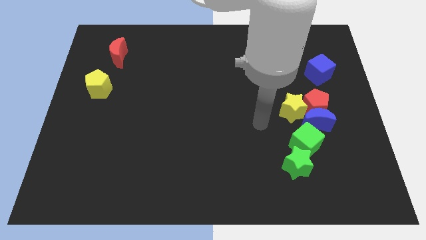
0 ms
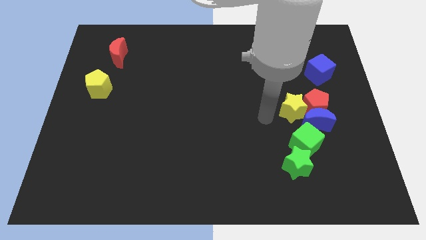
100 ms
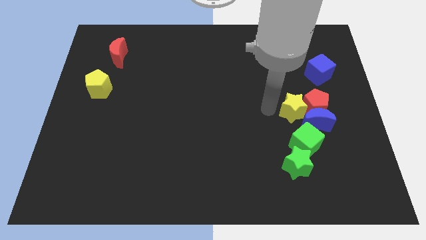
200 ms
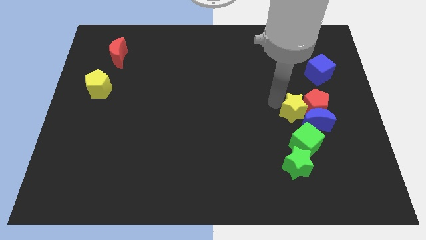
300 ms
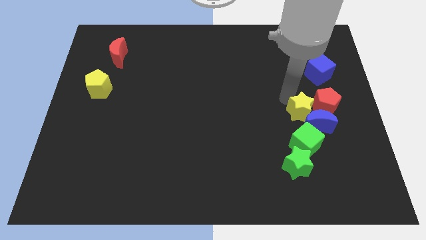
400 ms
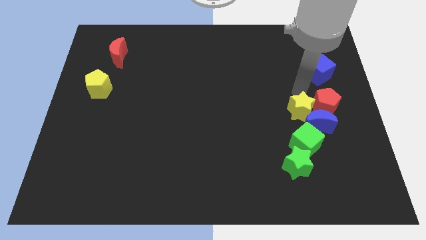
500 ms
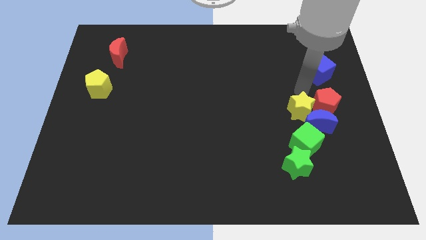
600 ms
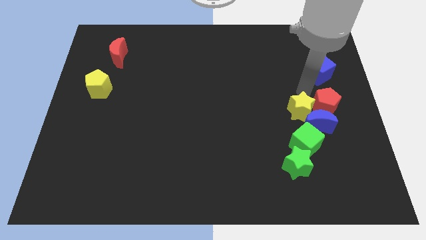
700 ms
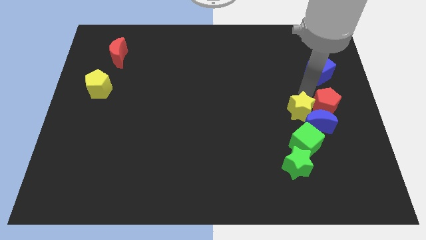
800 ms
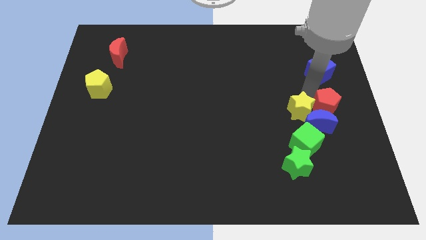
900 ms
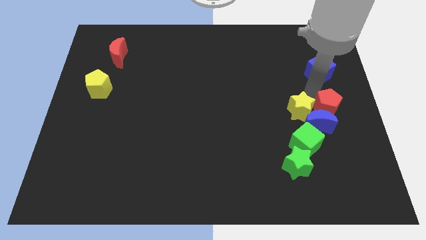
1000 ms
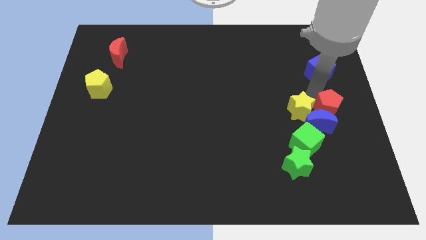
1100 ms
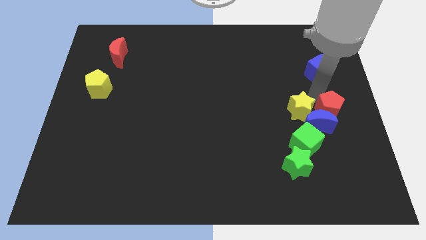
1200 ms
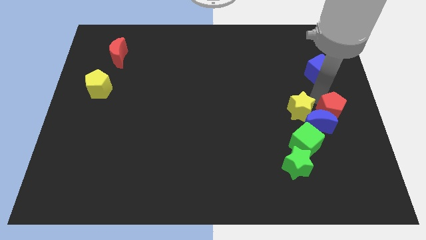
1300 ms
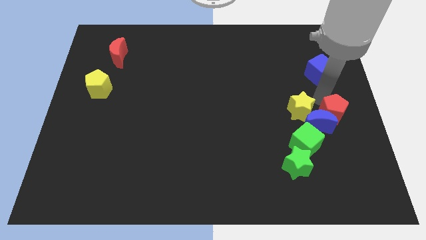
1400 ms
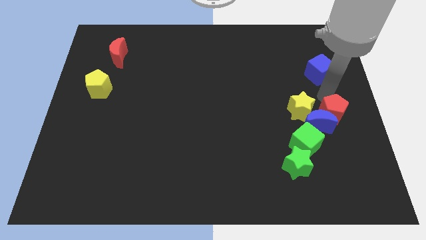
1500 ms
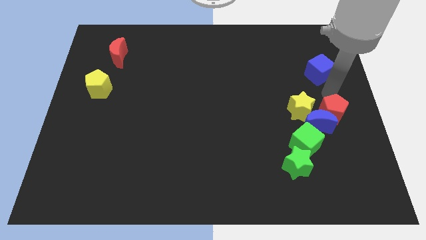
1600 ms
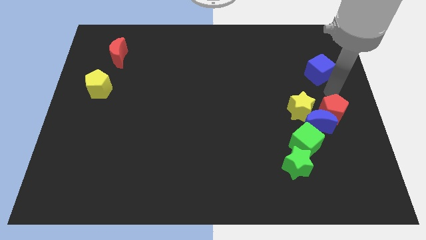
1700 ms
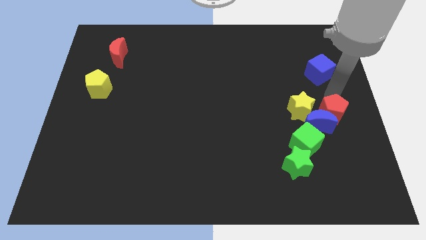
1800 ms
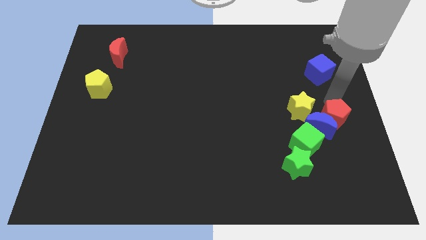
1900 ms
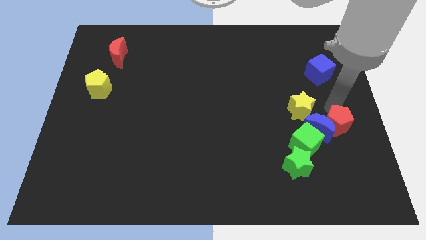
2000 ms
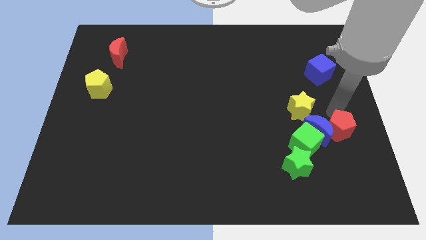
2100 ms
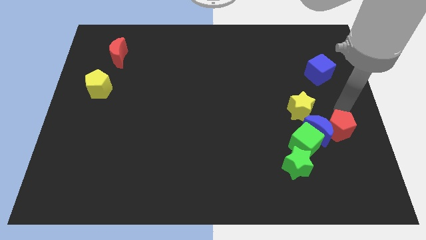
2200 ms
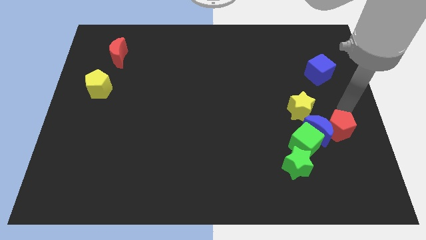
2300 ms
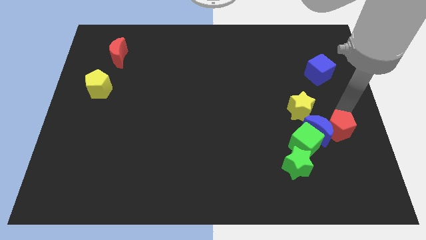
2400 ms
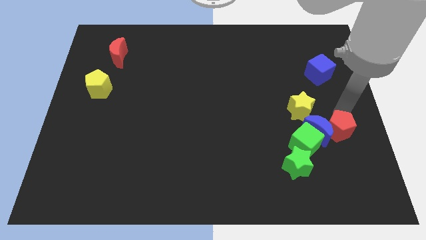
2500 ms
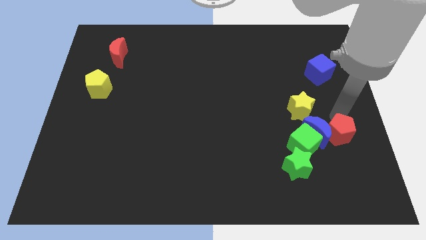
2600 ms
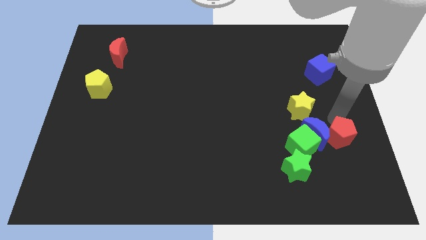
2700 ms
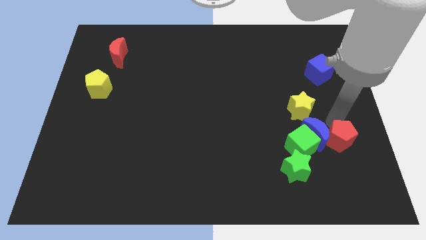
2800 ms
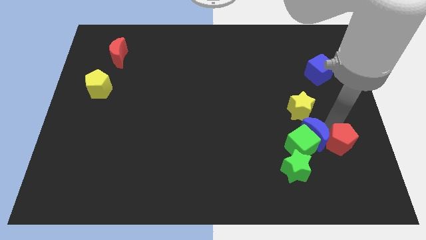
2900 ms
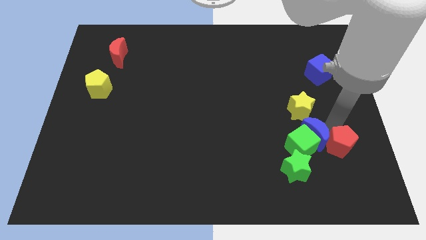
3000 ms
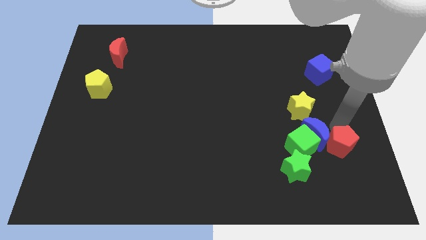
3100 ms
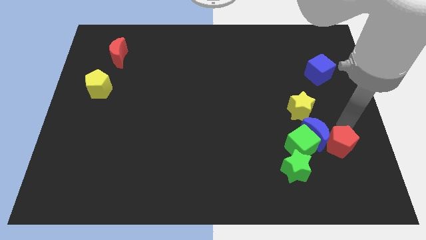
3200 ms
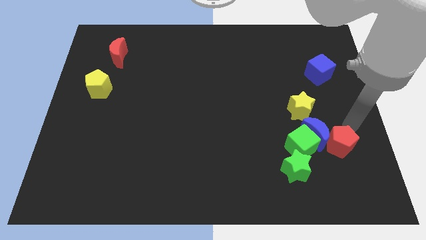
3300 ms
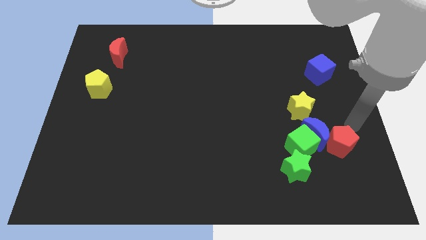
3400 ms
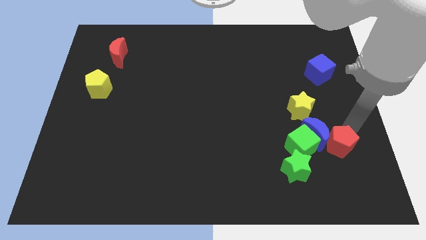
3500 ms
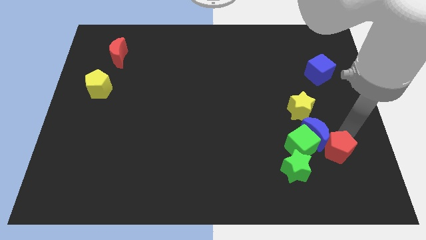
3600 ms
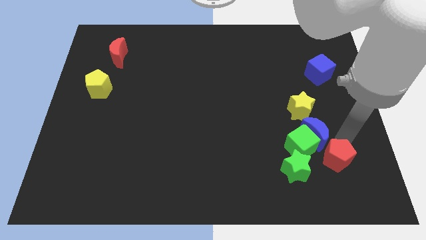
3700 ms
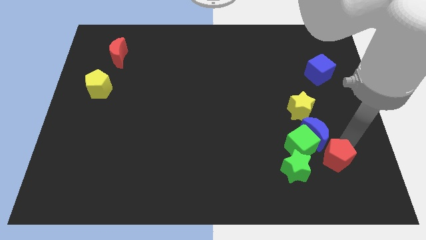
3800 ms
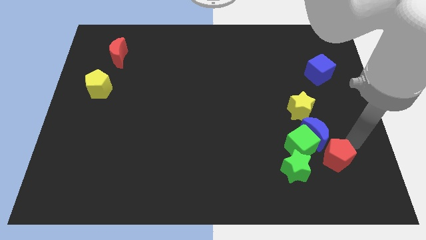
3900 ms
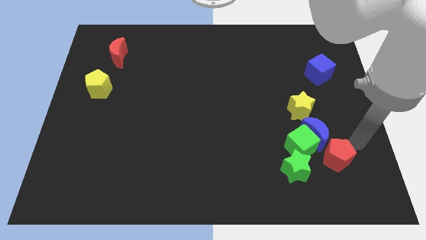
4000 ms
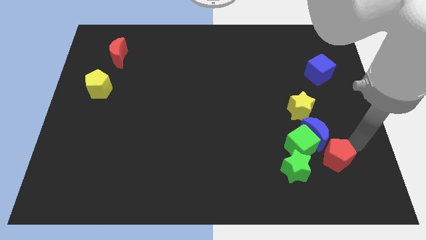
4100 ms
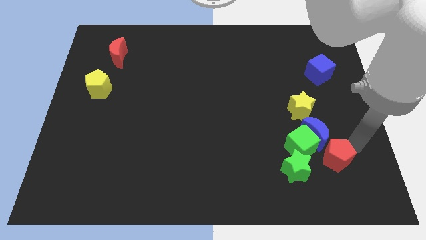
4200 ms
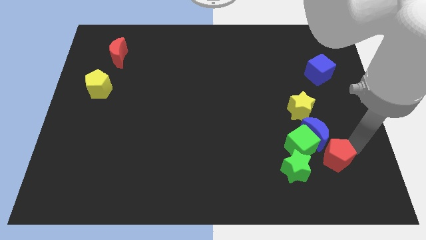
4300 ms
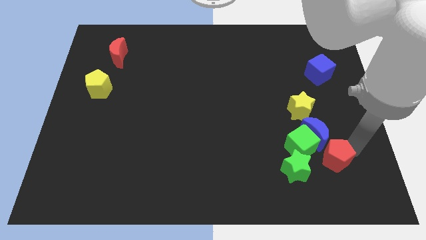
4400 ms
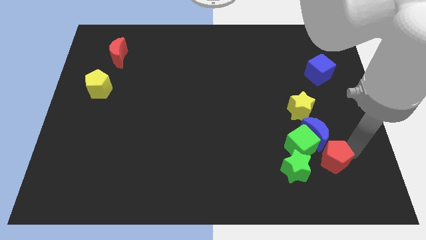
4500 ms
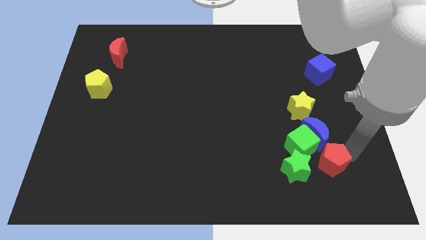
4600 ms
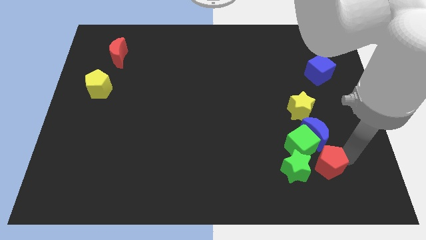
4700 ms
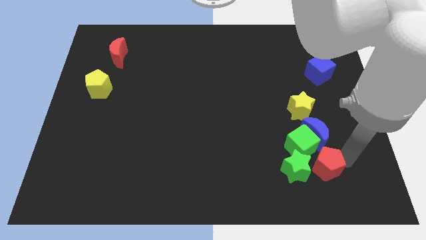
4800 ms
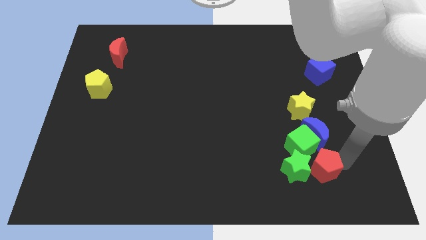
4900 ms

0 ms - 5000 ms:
move the red pentagon to the green star
